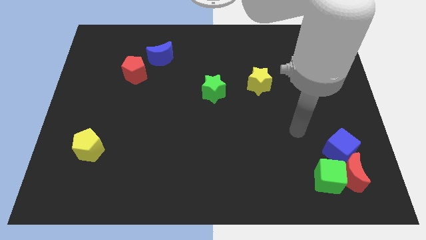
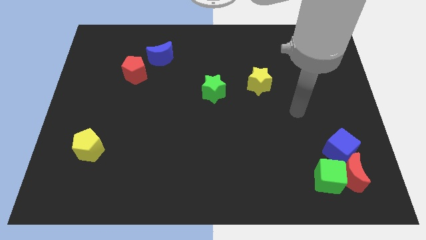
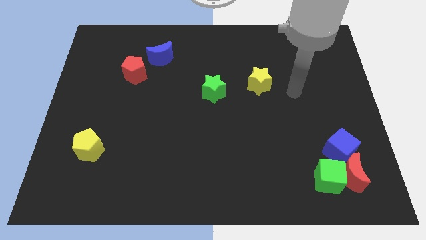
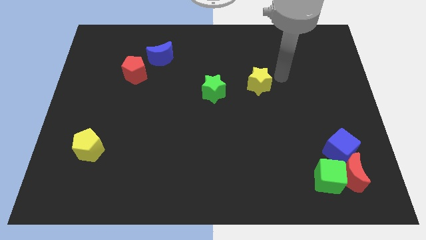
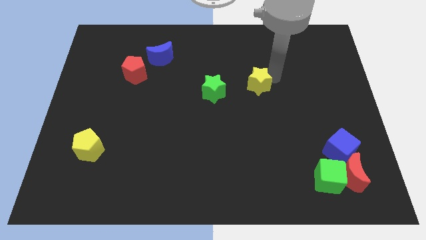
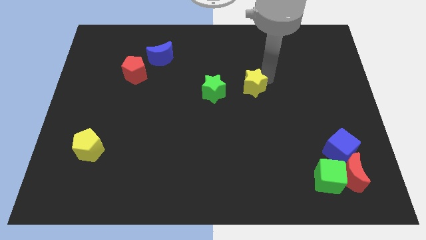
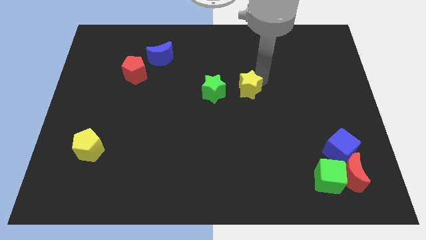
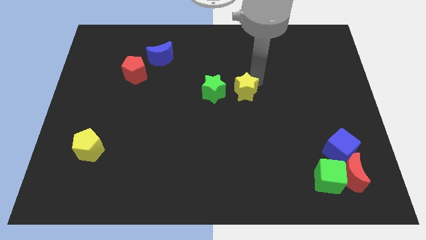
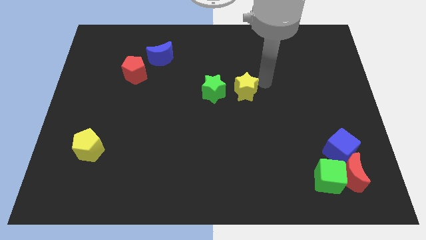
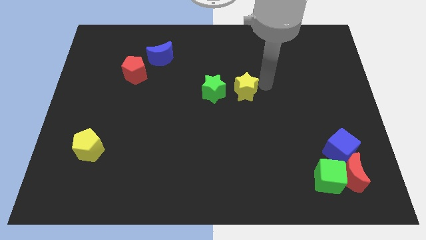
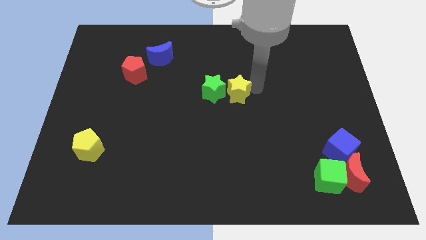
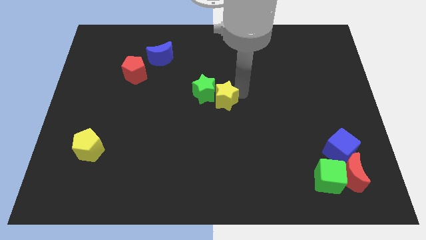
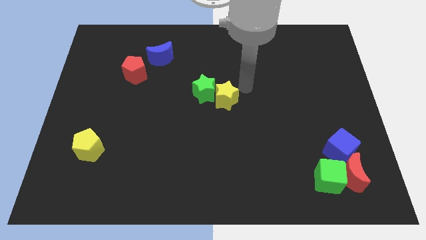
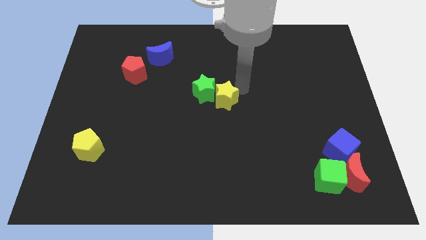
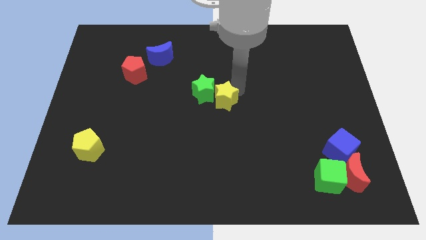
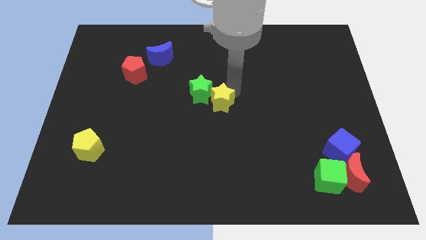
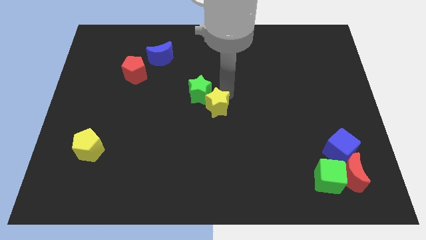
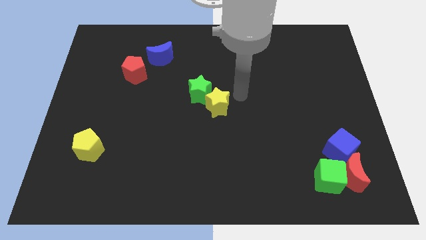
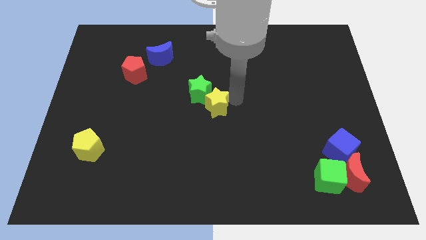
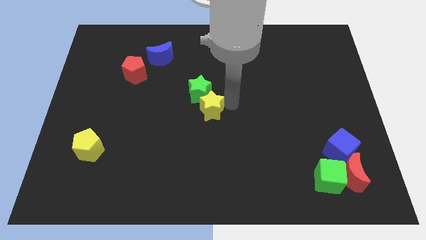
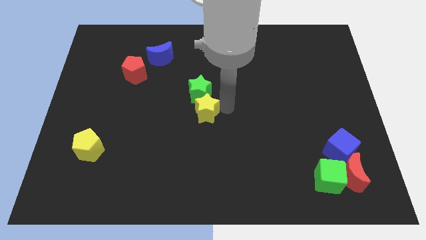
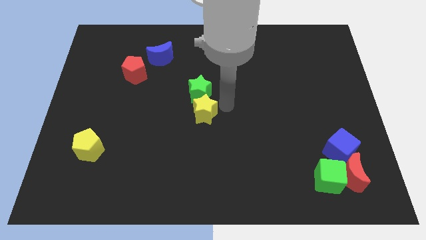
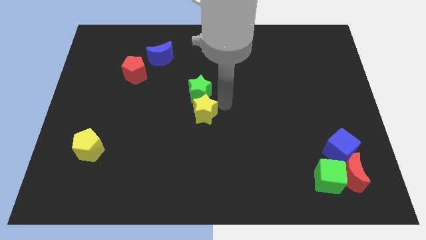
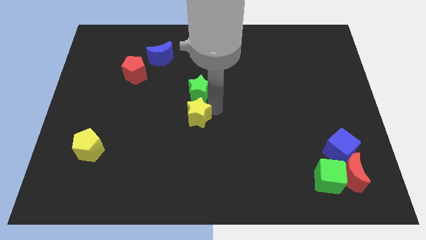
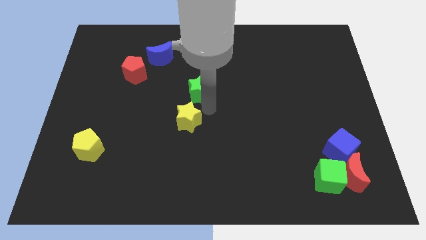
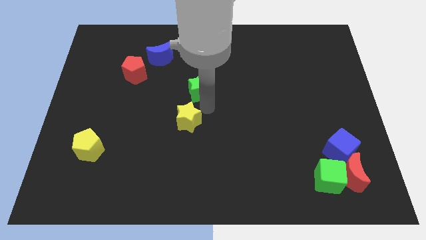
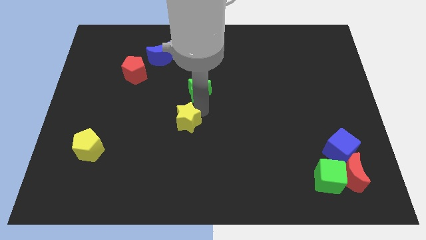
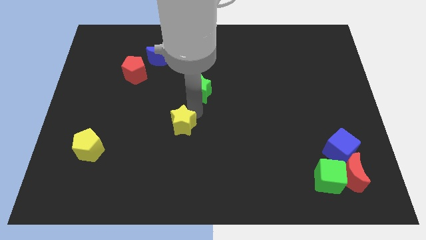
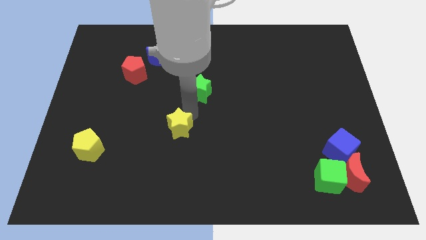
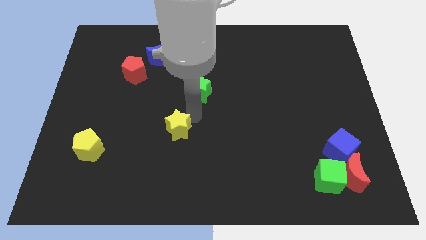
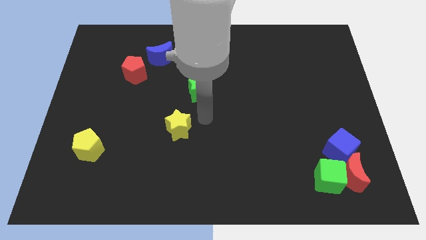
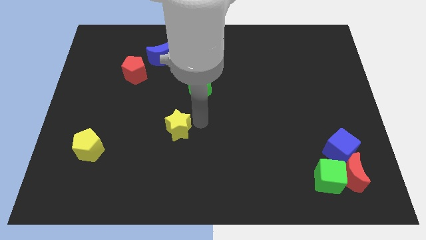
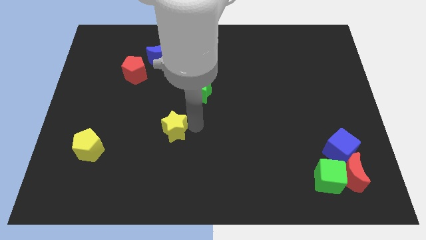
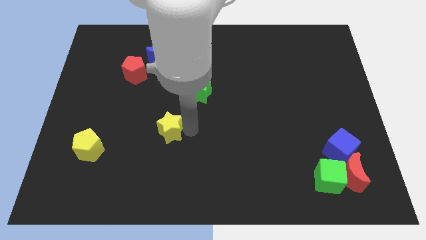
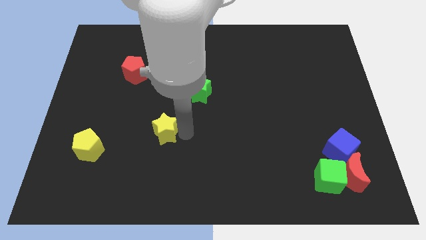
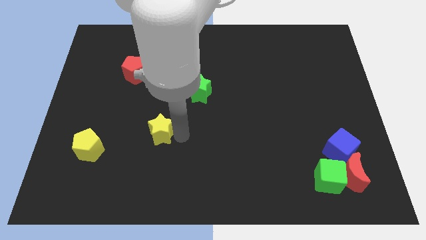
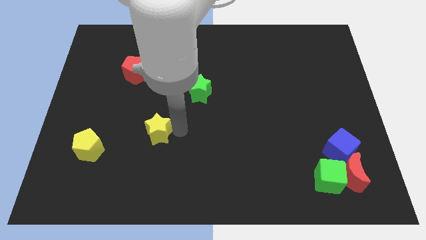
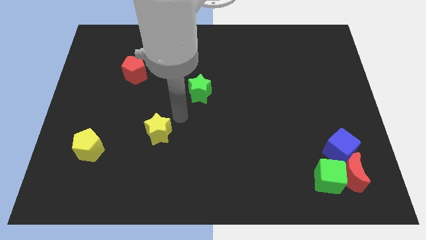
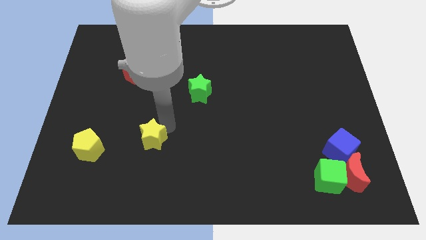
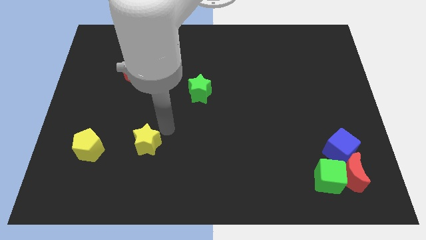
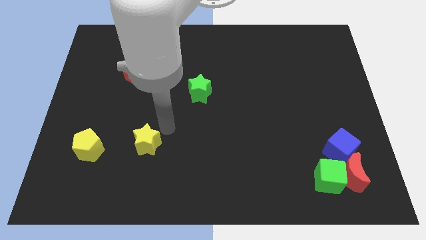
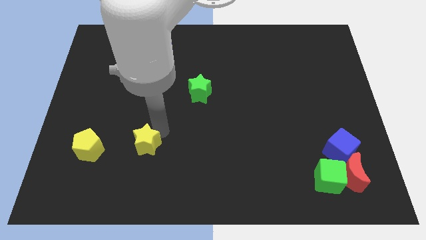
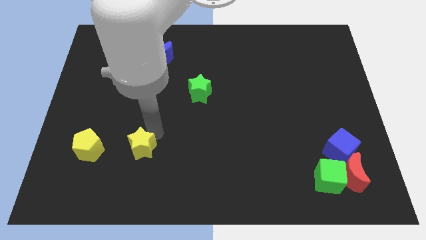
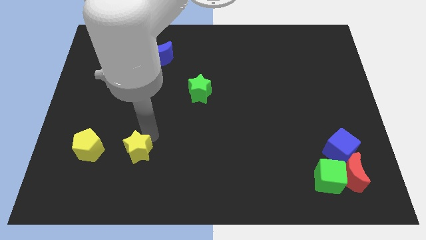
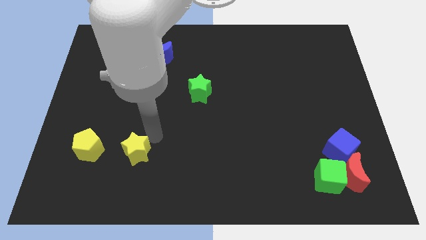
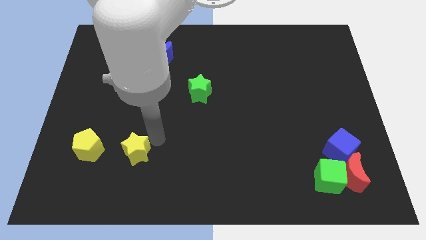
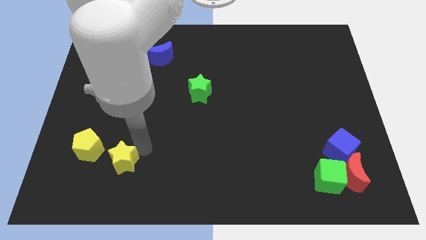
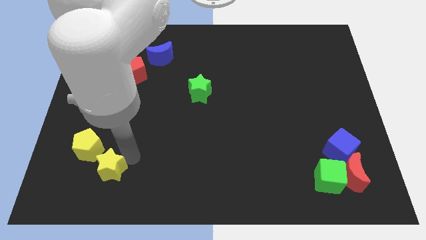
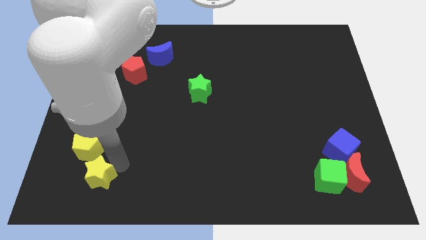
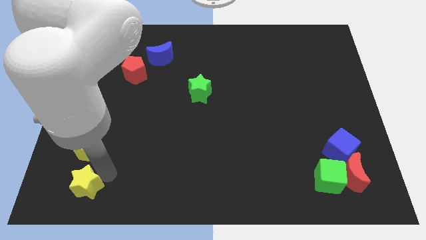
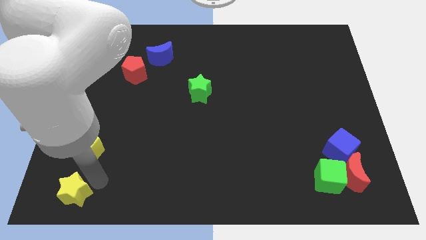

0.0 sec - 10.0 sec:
move the yellow star to the bottom left corner

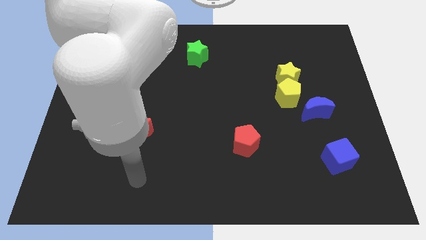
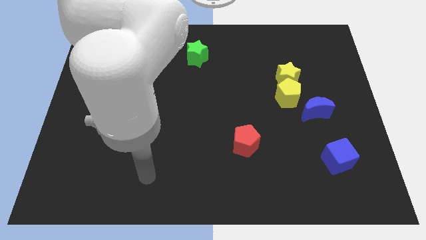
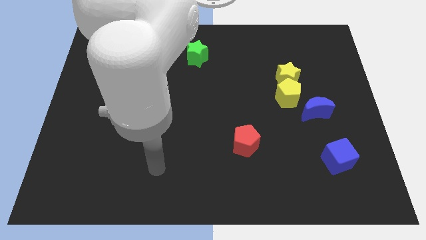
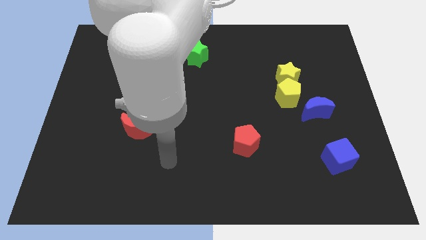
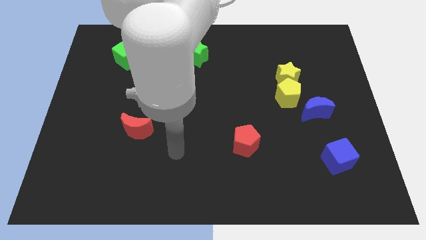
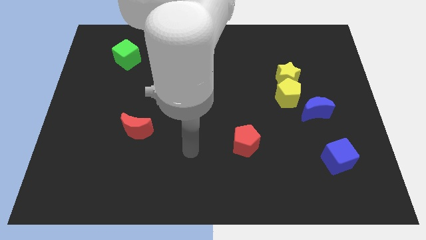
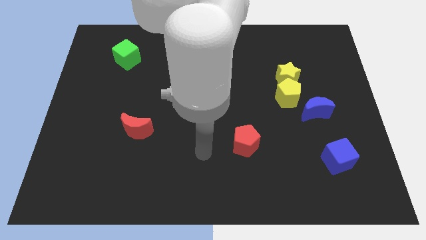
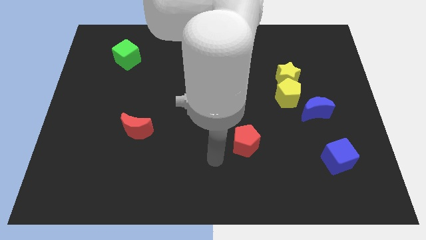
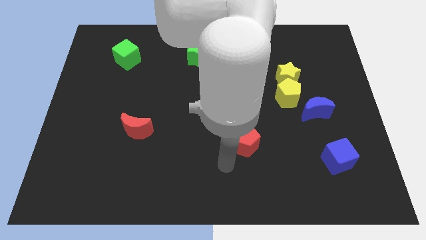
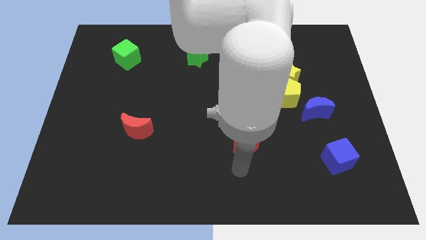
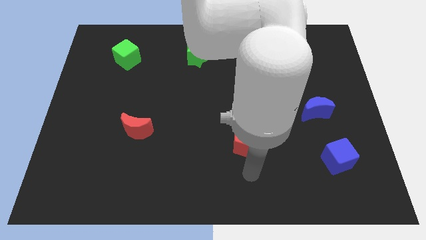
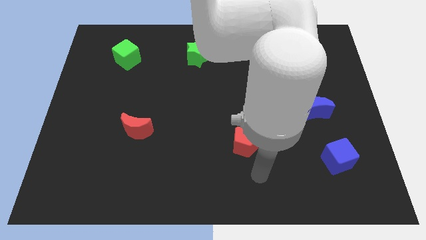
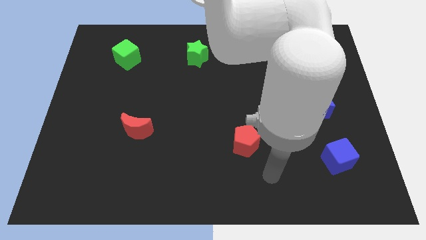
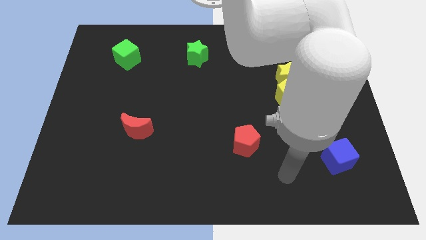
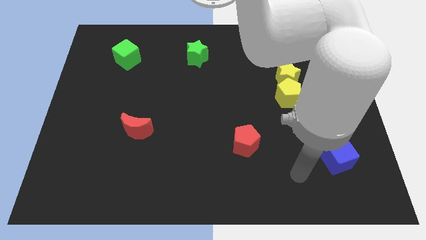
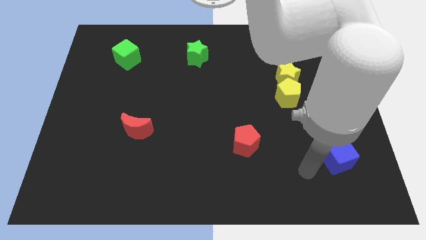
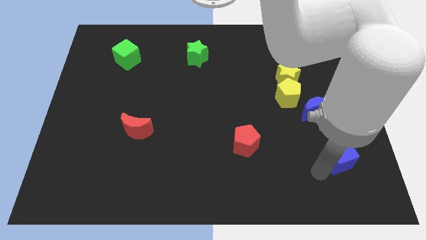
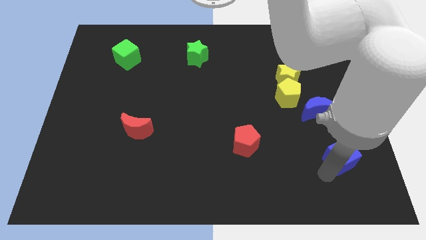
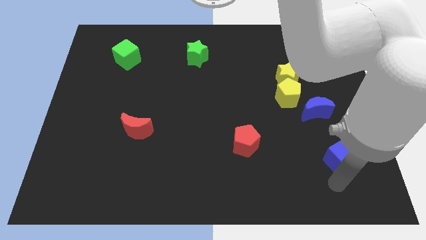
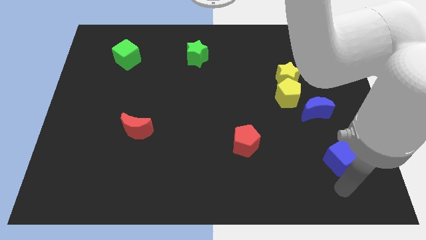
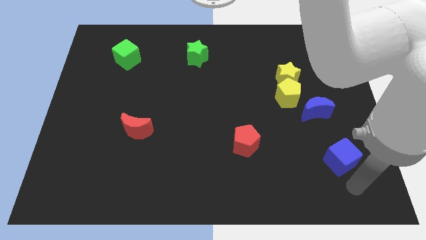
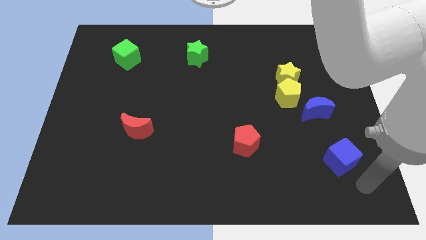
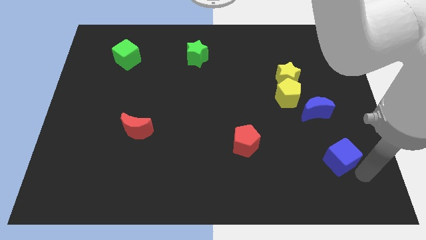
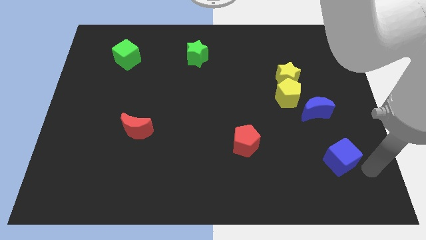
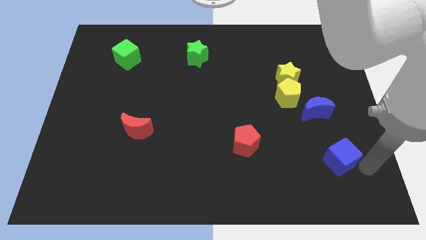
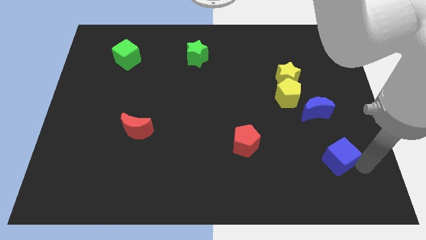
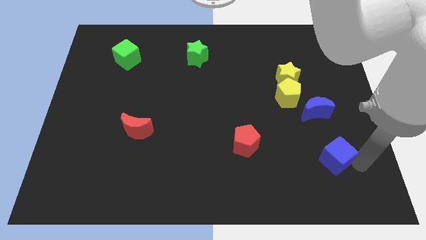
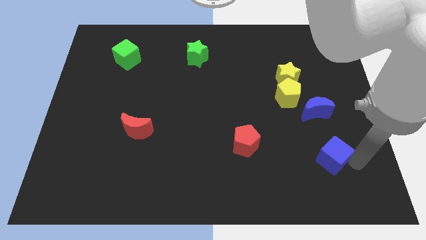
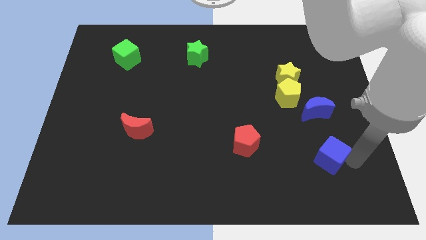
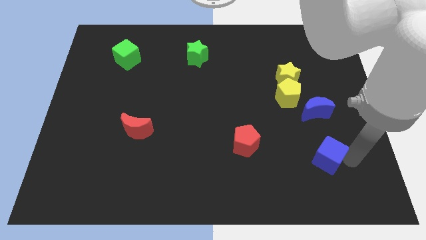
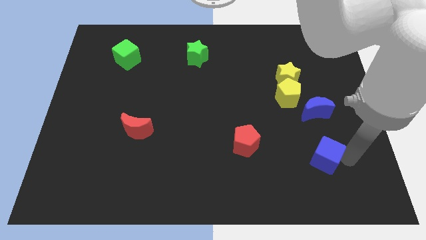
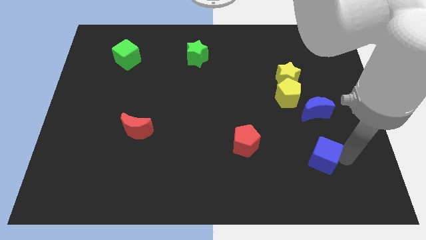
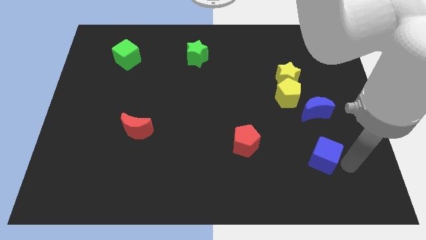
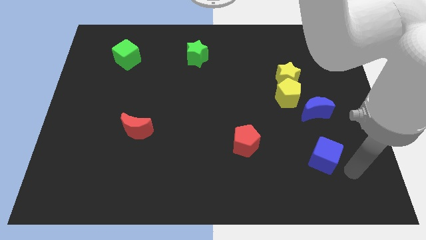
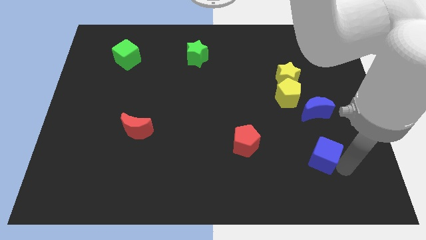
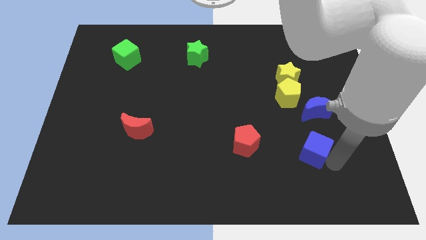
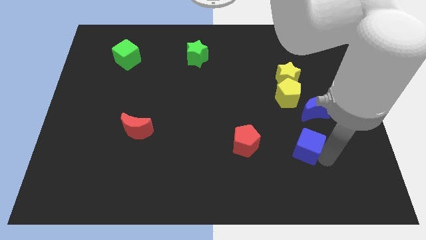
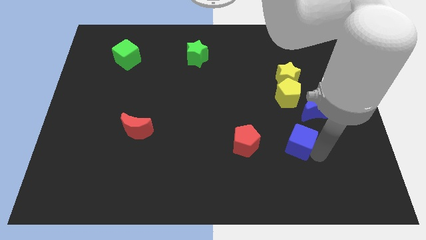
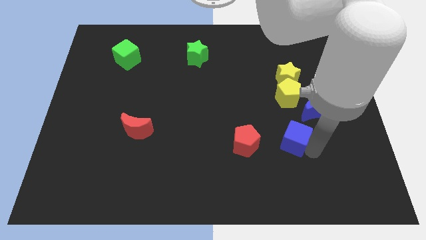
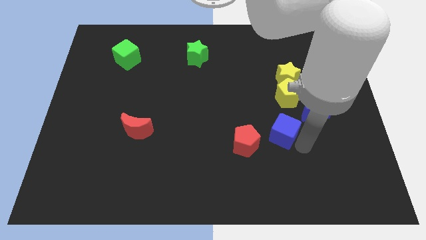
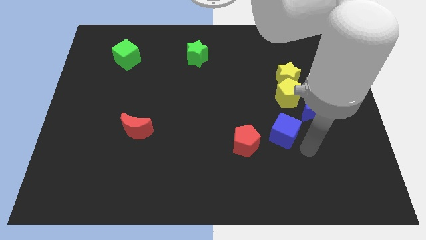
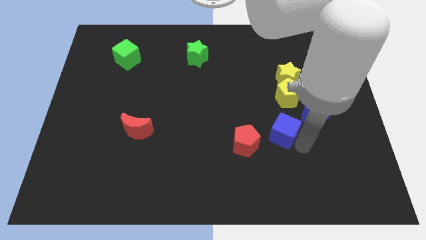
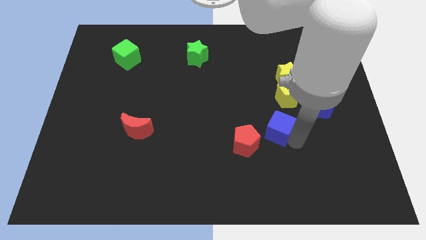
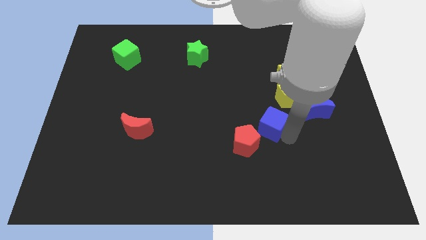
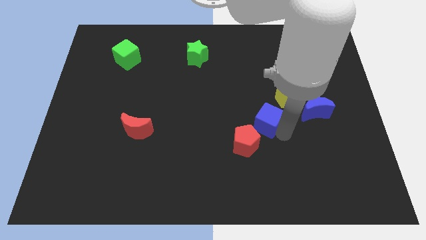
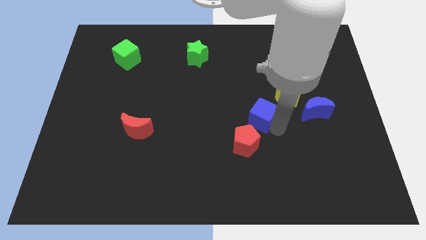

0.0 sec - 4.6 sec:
put the blue cube to the center
